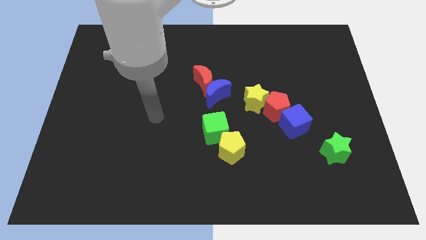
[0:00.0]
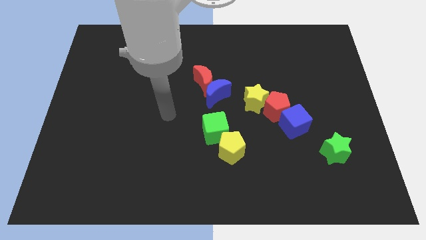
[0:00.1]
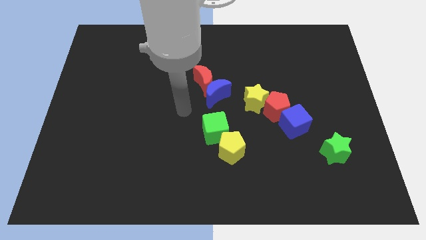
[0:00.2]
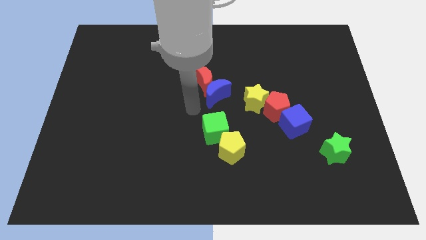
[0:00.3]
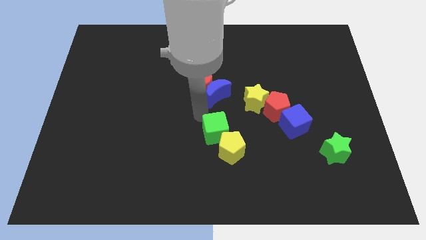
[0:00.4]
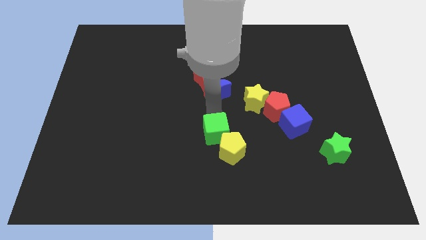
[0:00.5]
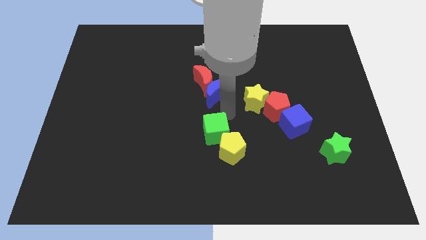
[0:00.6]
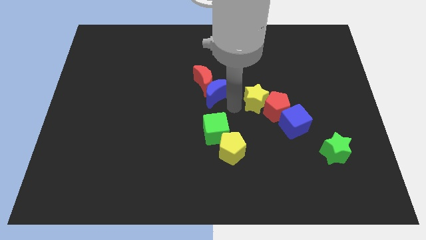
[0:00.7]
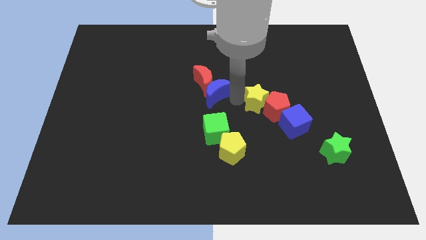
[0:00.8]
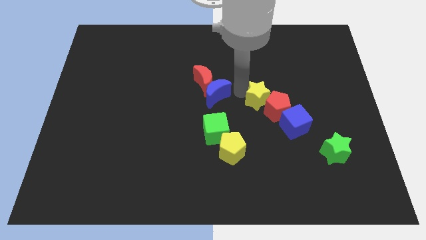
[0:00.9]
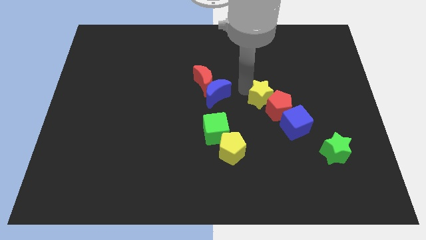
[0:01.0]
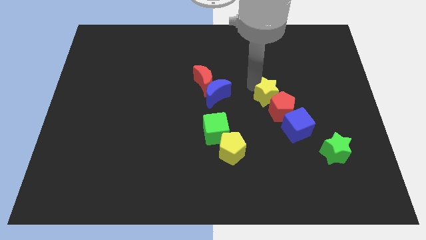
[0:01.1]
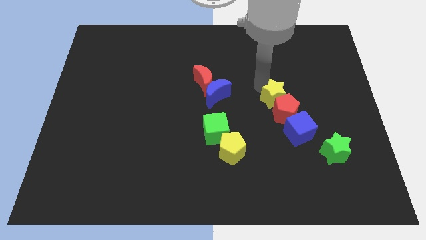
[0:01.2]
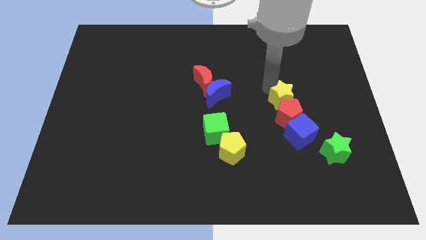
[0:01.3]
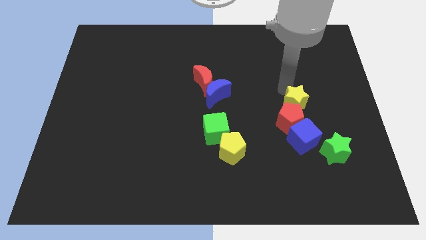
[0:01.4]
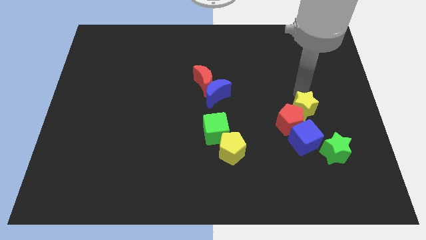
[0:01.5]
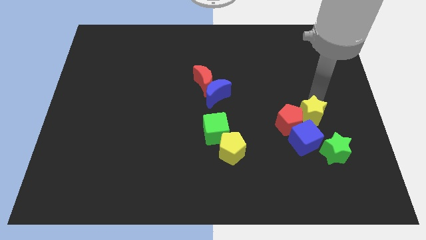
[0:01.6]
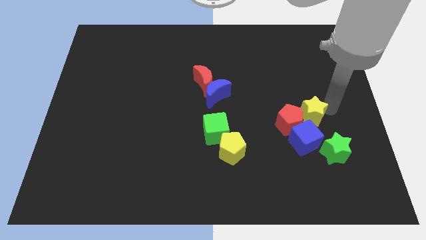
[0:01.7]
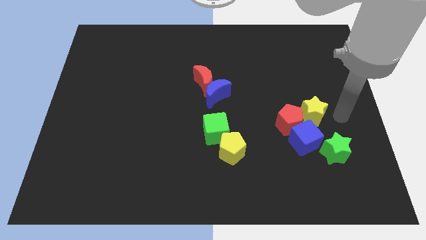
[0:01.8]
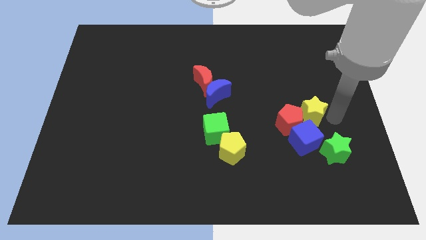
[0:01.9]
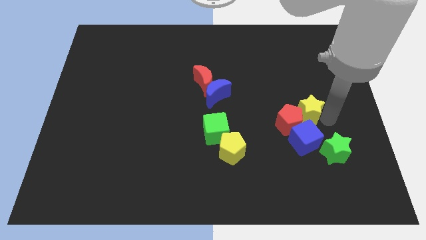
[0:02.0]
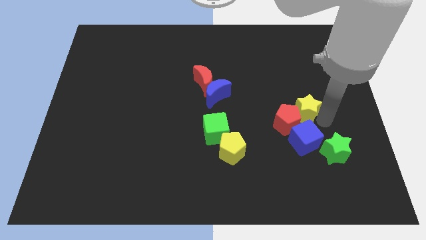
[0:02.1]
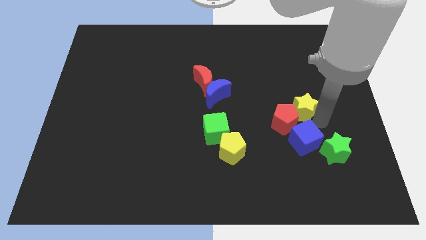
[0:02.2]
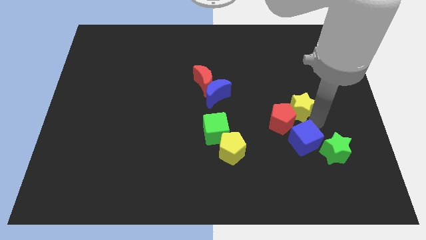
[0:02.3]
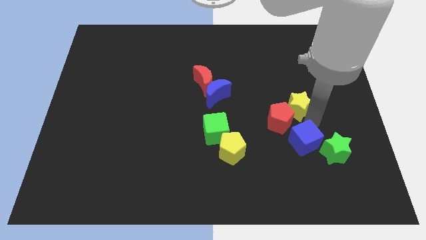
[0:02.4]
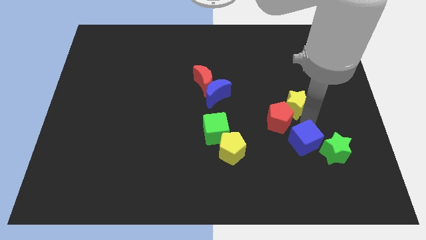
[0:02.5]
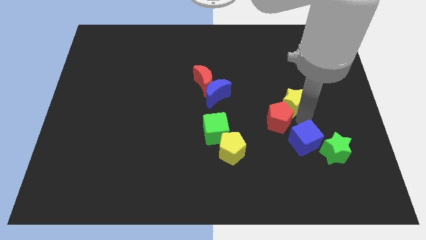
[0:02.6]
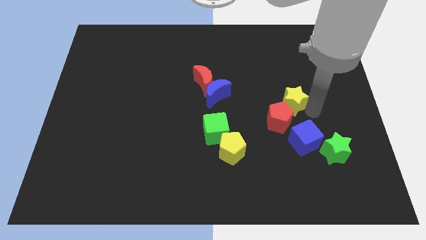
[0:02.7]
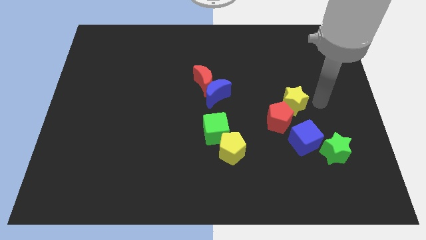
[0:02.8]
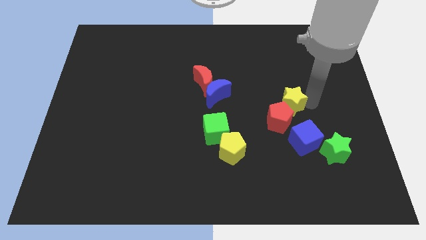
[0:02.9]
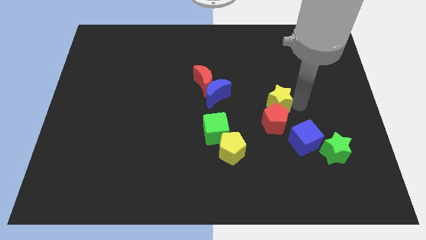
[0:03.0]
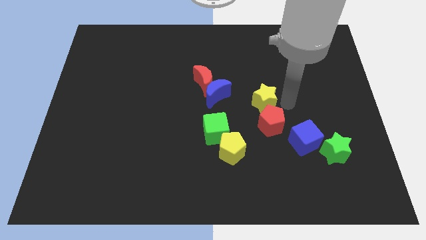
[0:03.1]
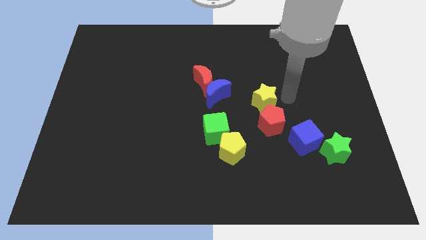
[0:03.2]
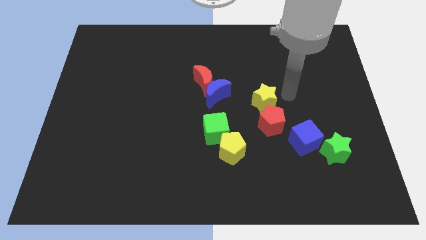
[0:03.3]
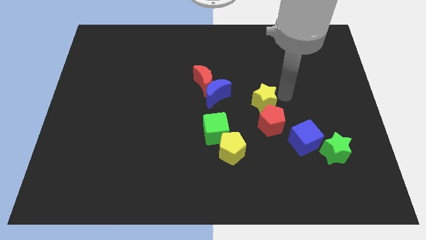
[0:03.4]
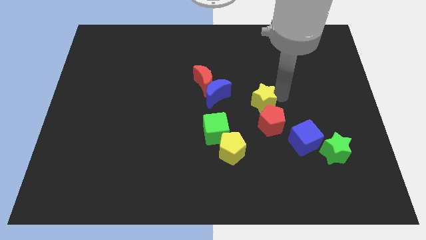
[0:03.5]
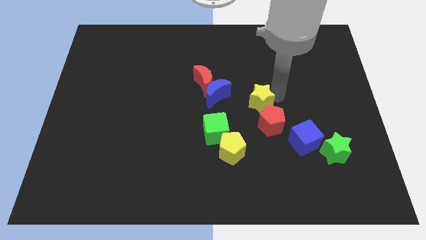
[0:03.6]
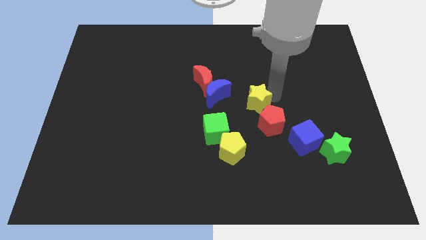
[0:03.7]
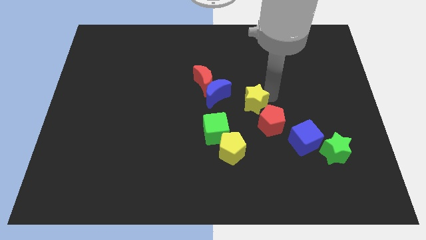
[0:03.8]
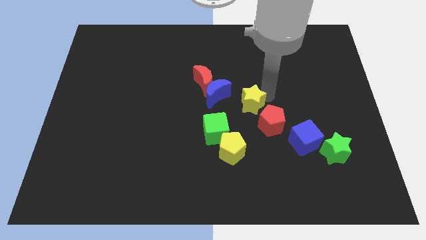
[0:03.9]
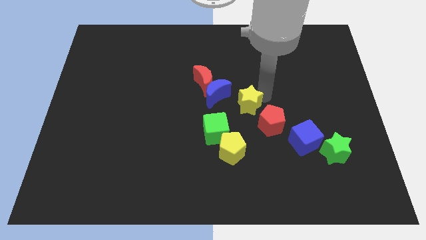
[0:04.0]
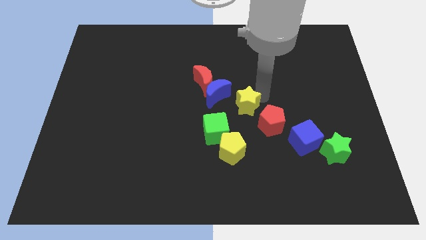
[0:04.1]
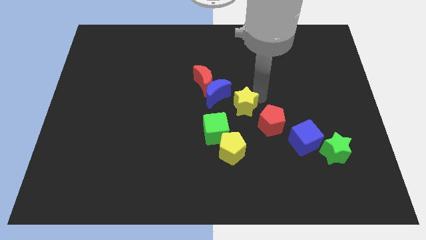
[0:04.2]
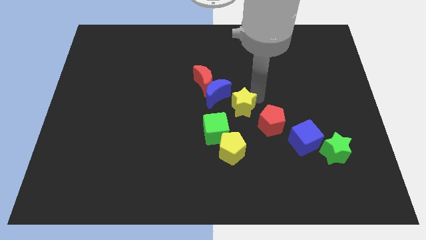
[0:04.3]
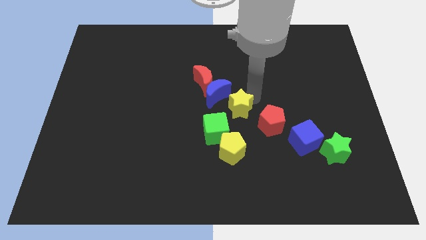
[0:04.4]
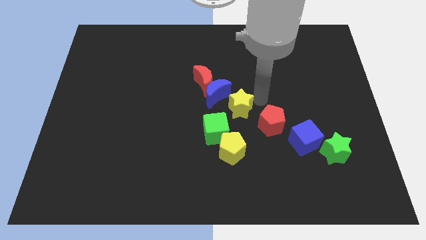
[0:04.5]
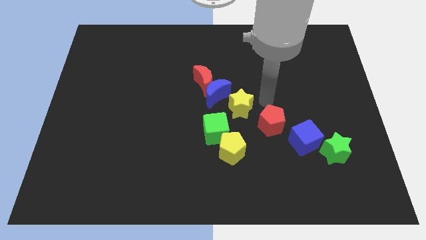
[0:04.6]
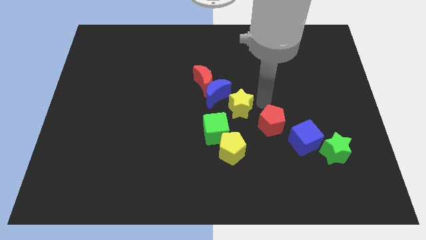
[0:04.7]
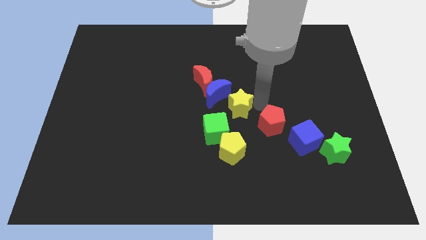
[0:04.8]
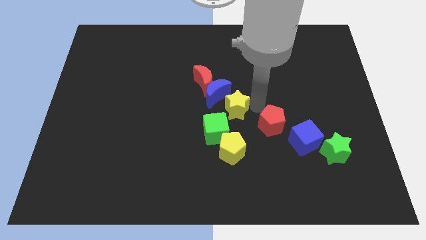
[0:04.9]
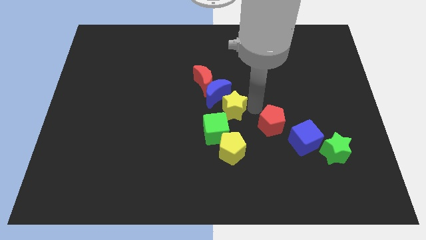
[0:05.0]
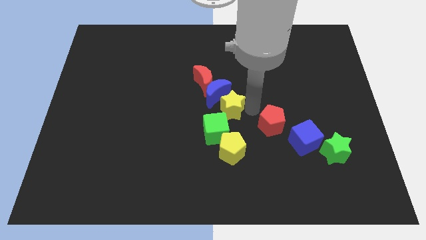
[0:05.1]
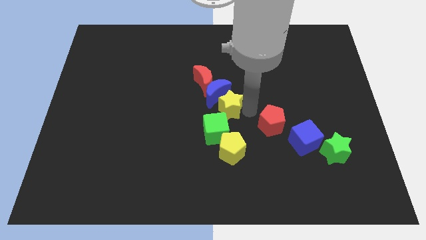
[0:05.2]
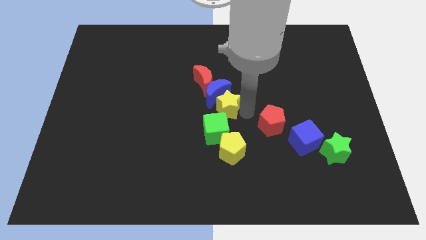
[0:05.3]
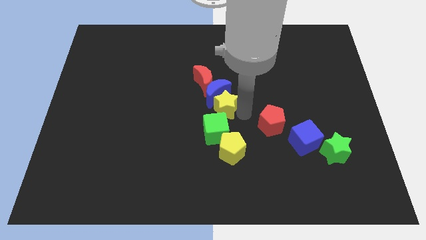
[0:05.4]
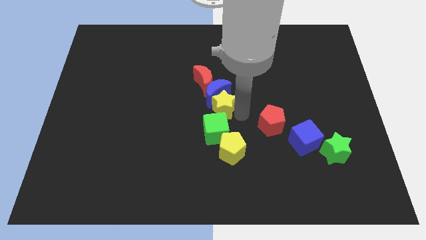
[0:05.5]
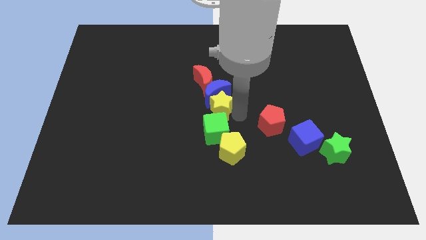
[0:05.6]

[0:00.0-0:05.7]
push the yellow star diagonally down and left a bit

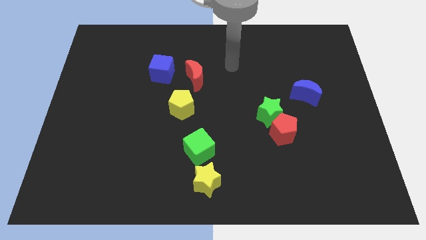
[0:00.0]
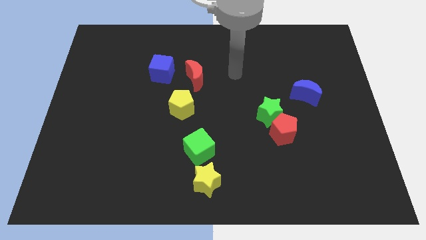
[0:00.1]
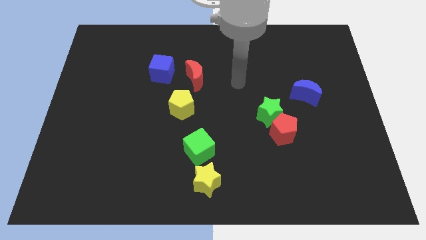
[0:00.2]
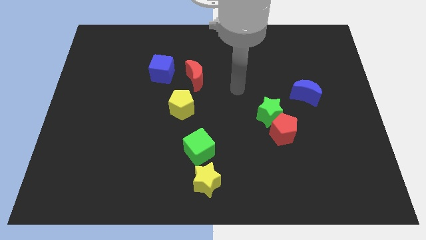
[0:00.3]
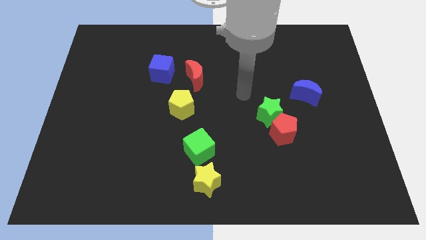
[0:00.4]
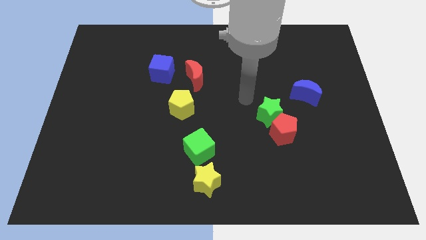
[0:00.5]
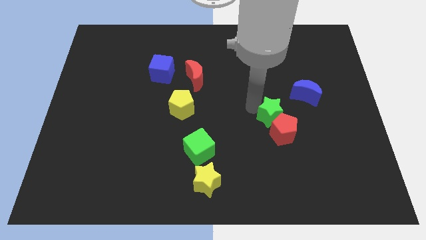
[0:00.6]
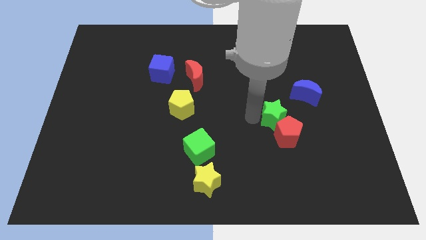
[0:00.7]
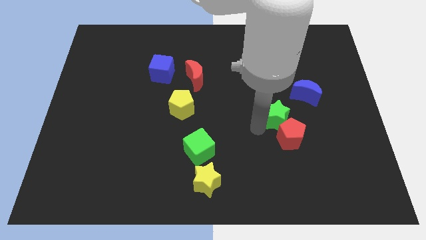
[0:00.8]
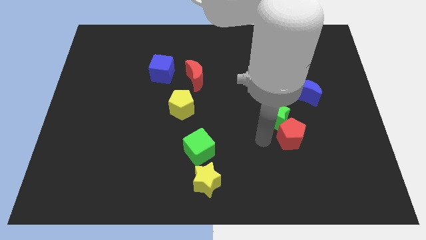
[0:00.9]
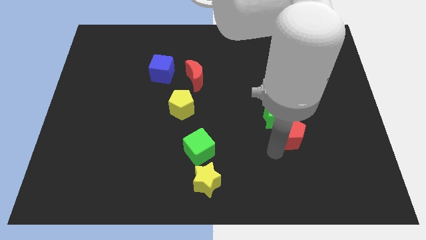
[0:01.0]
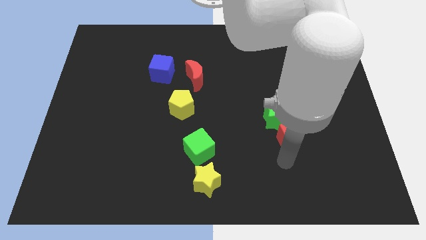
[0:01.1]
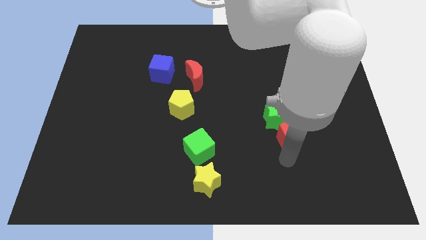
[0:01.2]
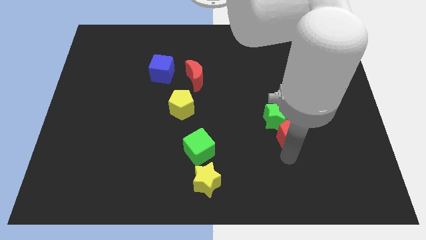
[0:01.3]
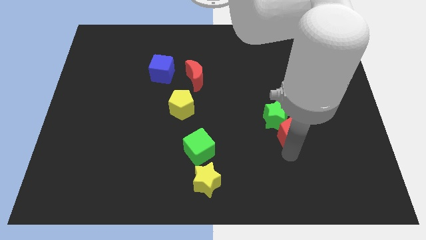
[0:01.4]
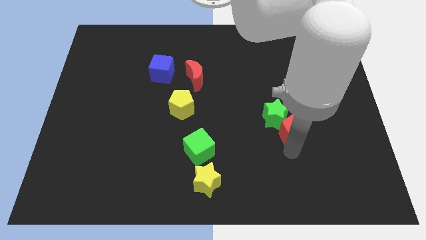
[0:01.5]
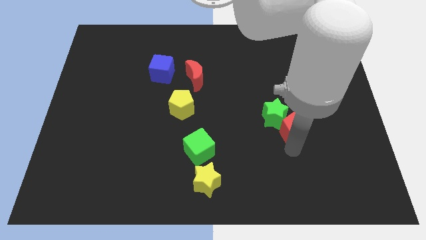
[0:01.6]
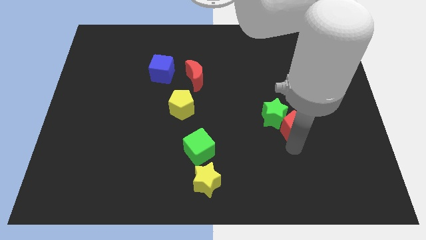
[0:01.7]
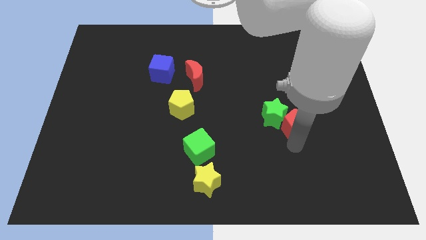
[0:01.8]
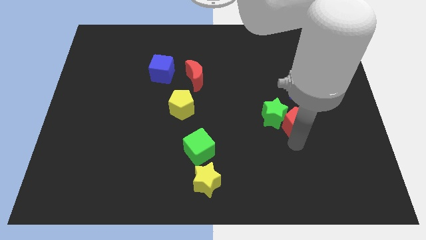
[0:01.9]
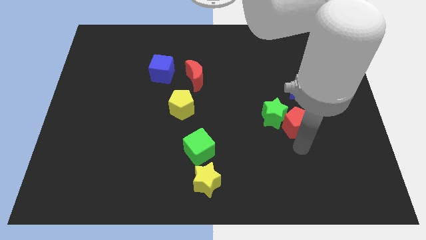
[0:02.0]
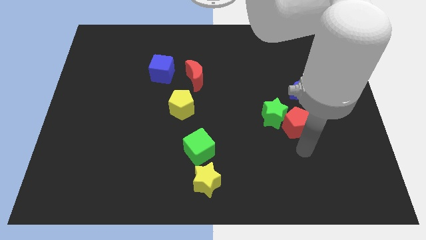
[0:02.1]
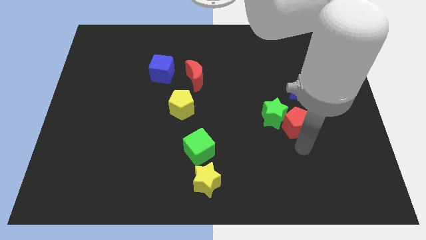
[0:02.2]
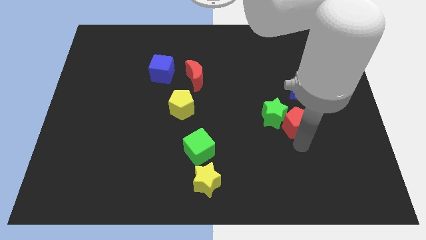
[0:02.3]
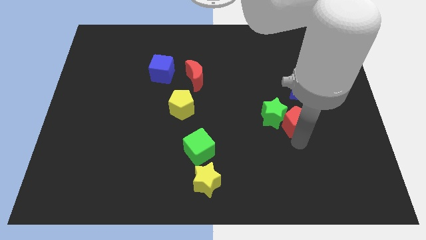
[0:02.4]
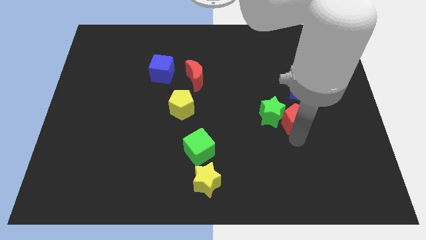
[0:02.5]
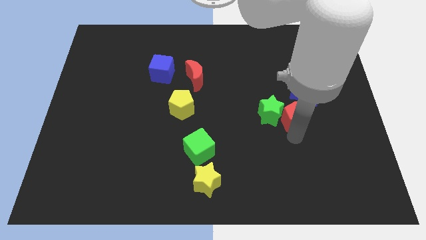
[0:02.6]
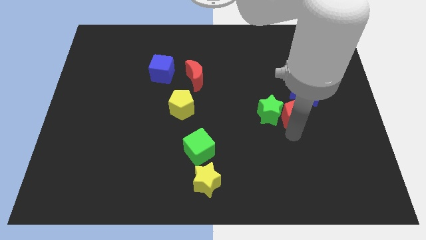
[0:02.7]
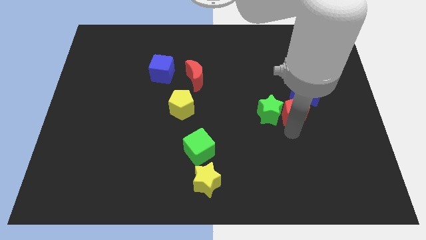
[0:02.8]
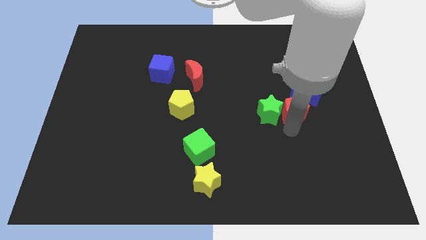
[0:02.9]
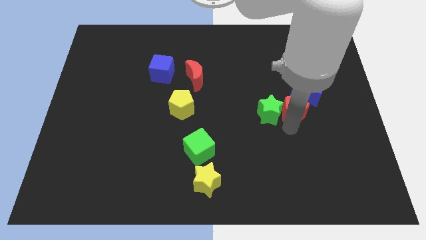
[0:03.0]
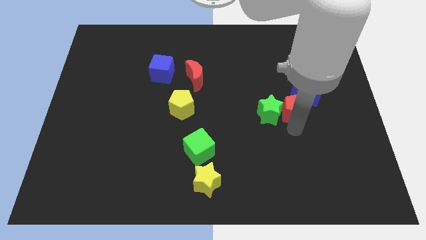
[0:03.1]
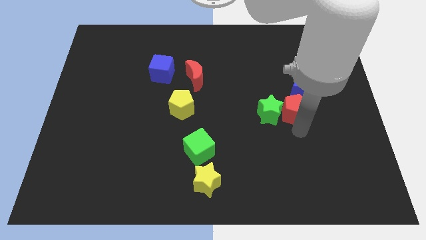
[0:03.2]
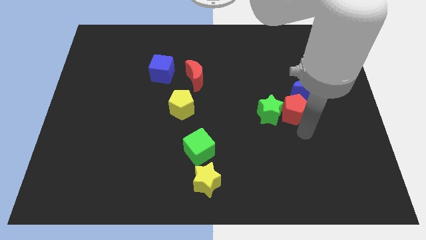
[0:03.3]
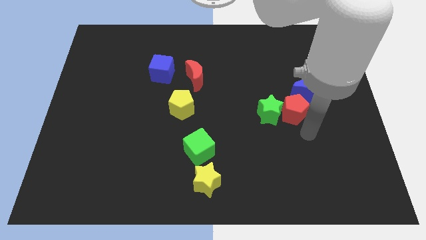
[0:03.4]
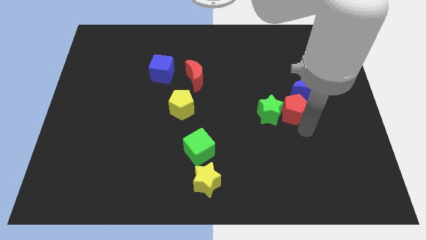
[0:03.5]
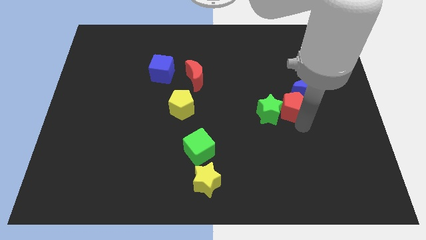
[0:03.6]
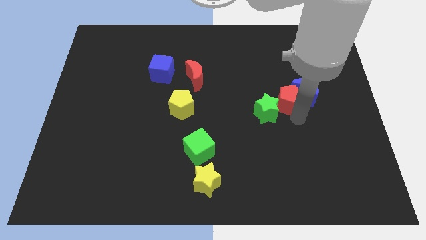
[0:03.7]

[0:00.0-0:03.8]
slightly slide the red pentagon upwards
